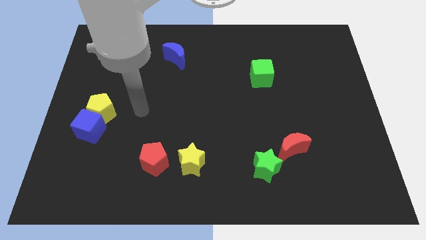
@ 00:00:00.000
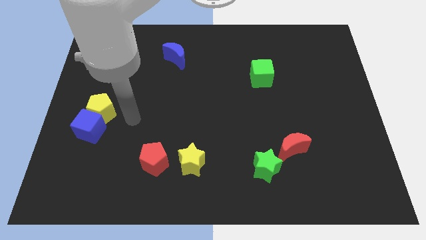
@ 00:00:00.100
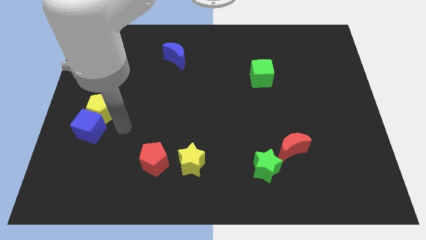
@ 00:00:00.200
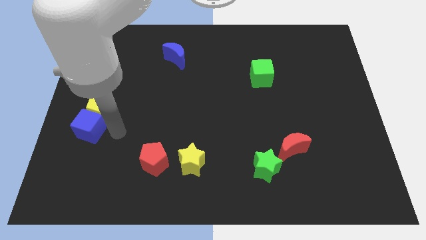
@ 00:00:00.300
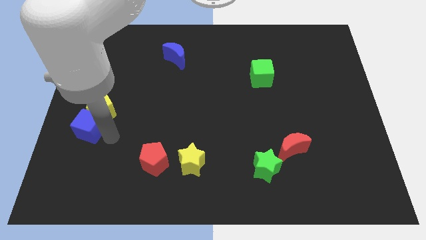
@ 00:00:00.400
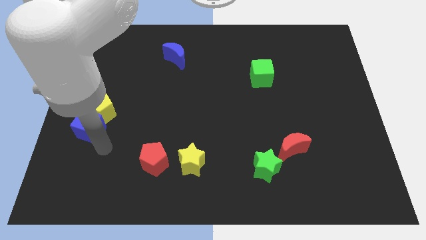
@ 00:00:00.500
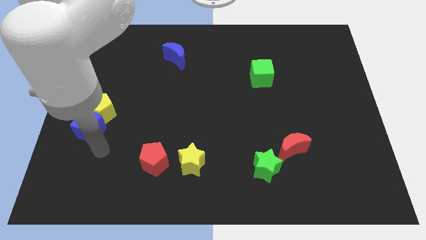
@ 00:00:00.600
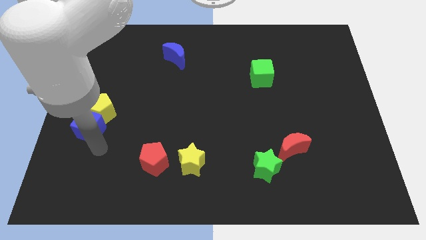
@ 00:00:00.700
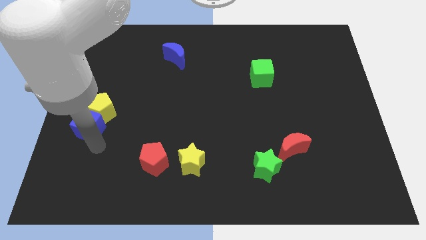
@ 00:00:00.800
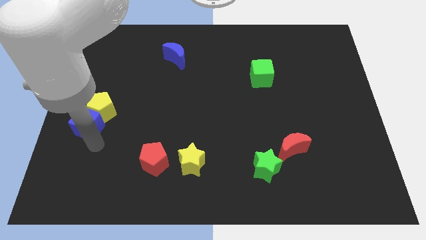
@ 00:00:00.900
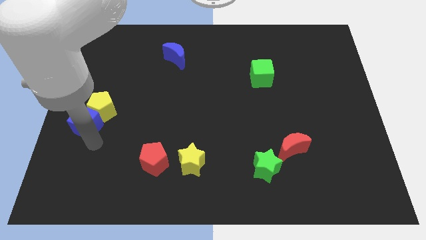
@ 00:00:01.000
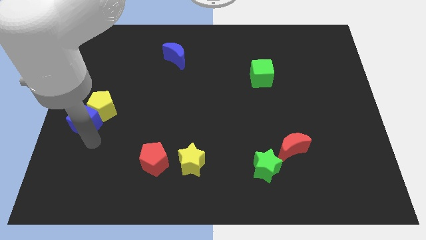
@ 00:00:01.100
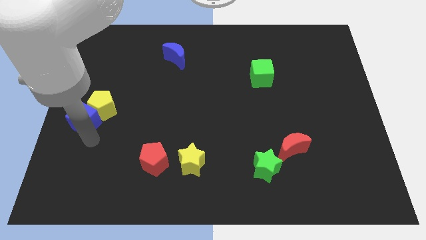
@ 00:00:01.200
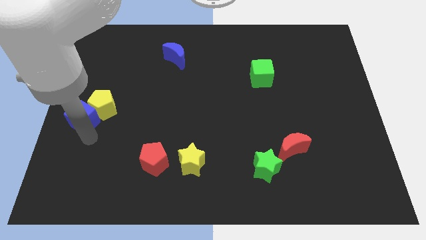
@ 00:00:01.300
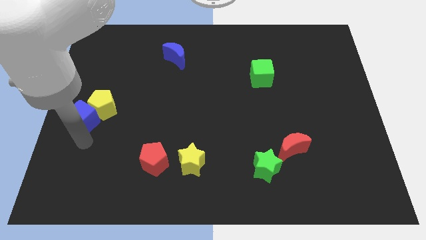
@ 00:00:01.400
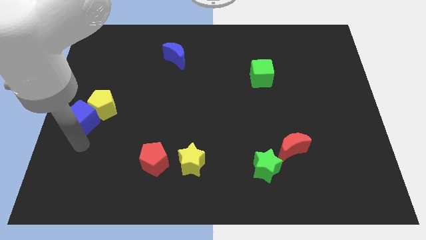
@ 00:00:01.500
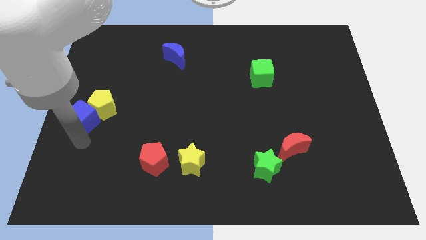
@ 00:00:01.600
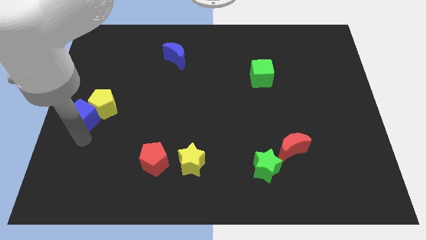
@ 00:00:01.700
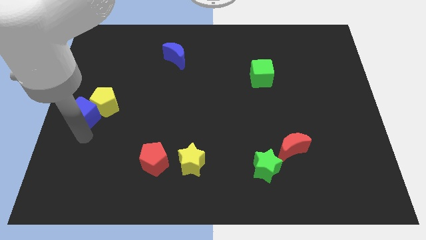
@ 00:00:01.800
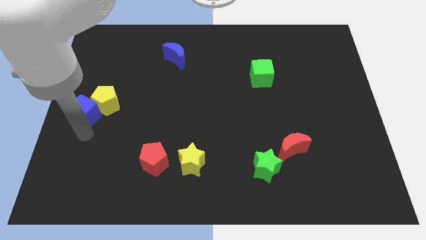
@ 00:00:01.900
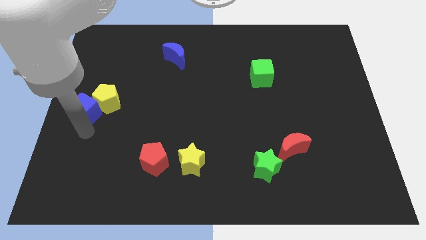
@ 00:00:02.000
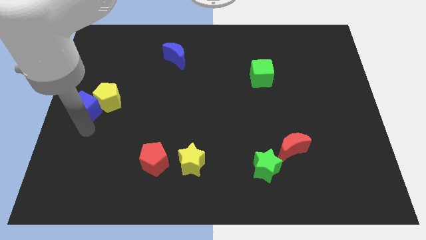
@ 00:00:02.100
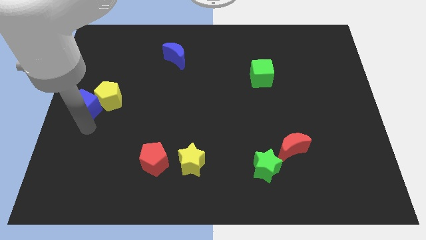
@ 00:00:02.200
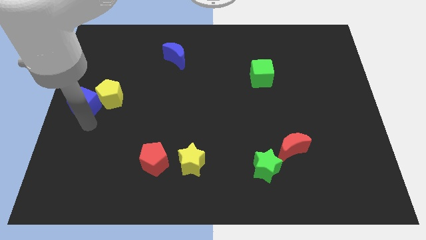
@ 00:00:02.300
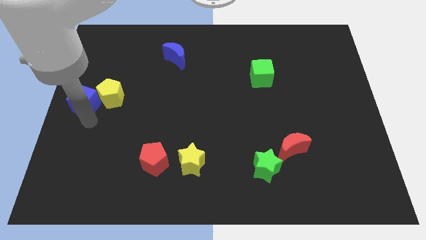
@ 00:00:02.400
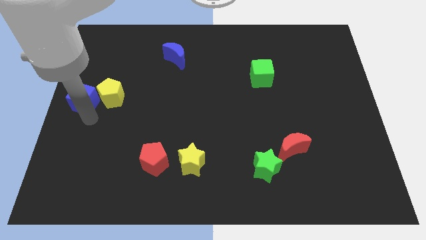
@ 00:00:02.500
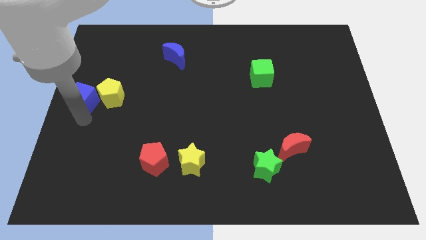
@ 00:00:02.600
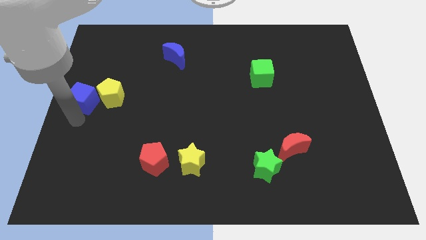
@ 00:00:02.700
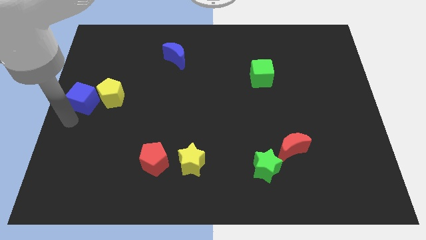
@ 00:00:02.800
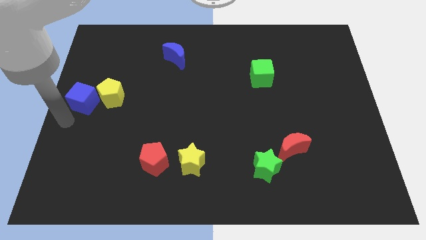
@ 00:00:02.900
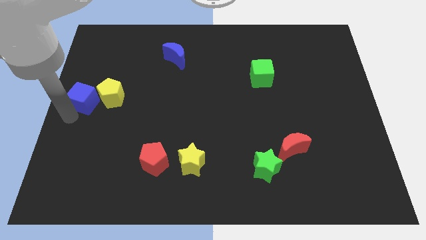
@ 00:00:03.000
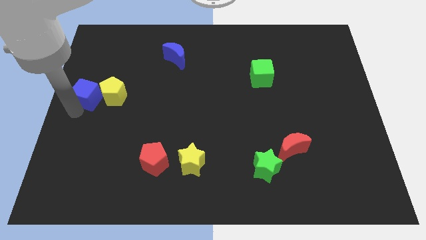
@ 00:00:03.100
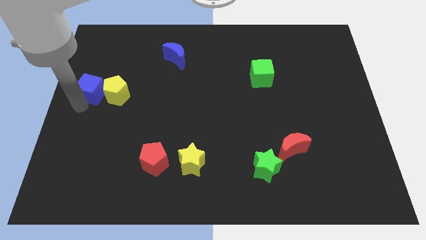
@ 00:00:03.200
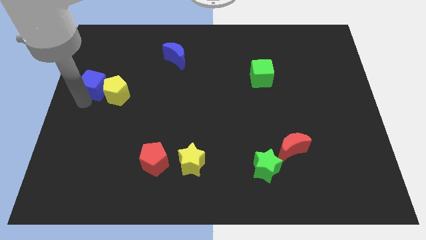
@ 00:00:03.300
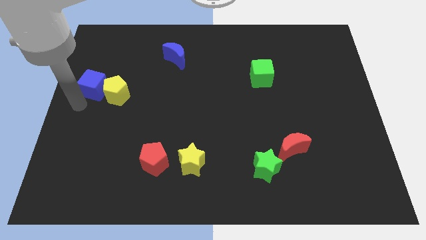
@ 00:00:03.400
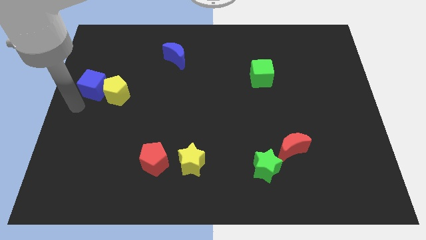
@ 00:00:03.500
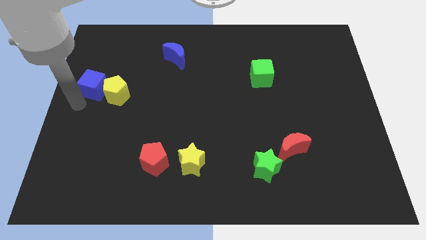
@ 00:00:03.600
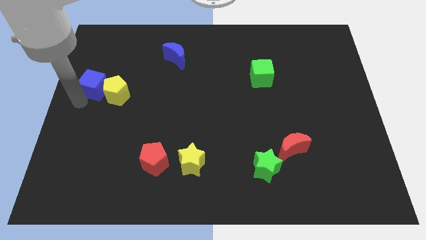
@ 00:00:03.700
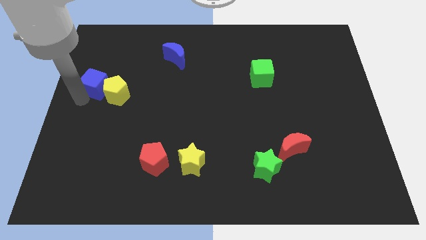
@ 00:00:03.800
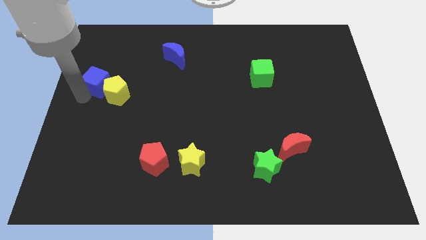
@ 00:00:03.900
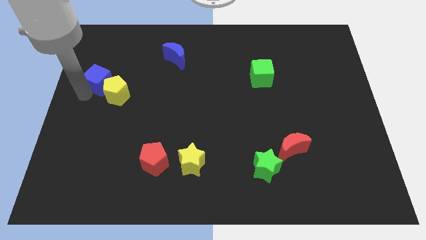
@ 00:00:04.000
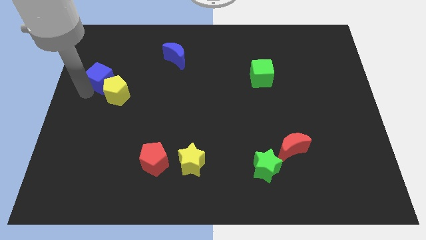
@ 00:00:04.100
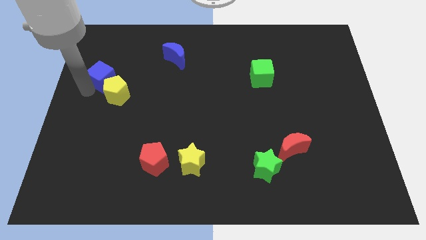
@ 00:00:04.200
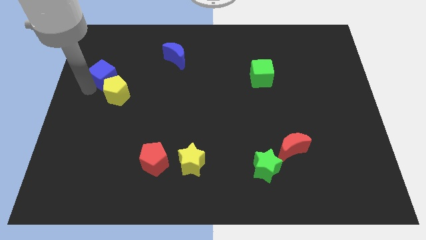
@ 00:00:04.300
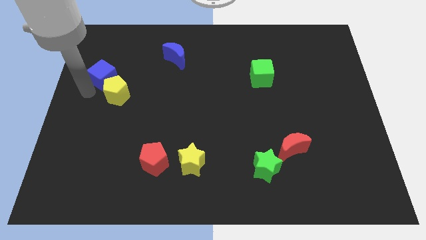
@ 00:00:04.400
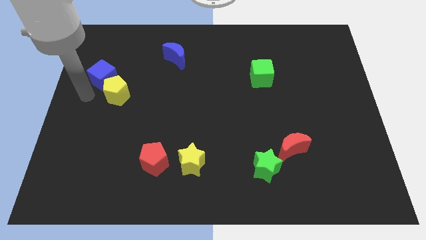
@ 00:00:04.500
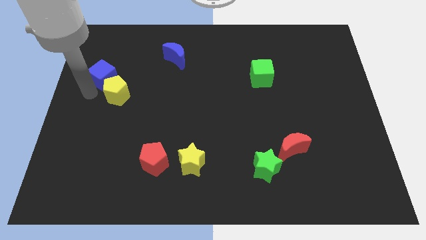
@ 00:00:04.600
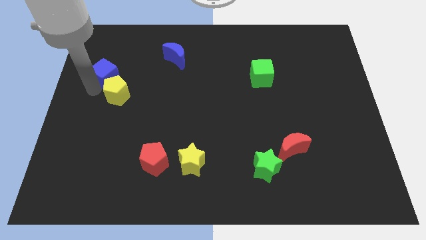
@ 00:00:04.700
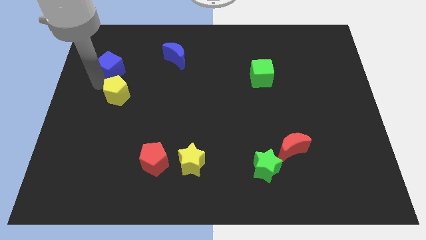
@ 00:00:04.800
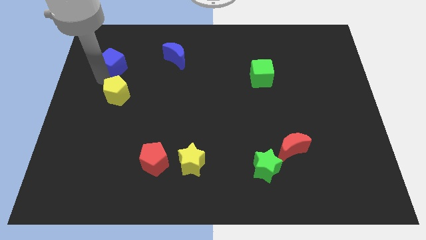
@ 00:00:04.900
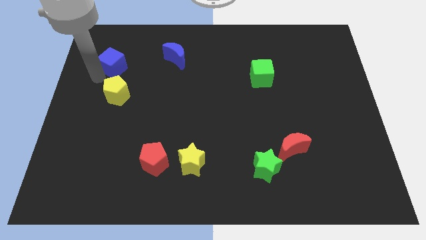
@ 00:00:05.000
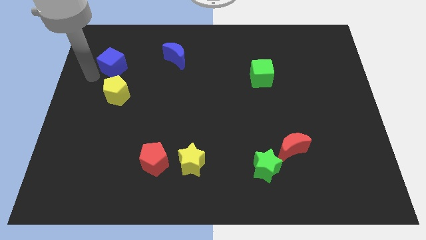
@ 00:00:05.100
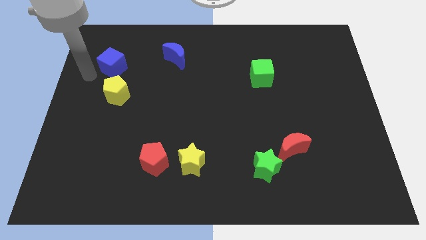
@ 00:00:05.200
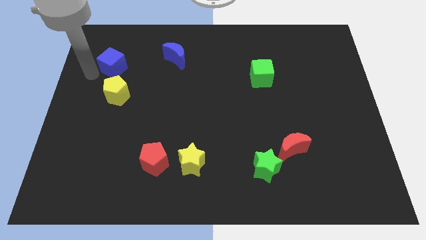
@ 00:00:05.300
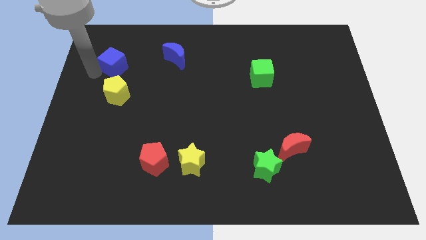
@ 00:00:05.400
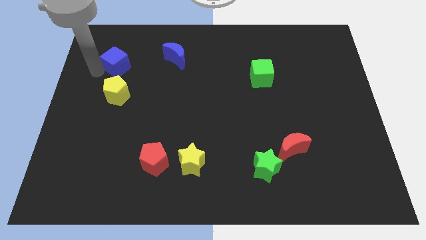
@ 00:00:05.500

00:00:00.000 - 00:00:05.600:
slide the blue cube left of the blue moon

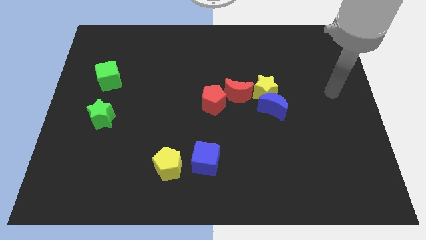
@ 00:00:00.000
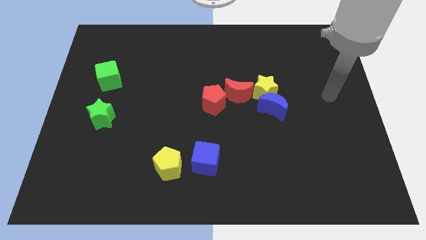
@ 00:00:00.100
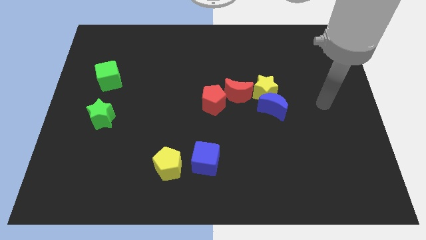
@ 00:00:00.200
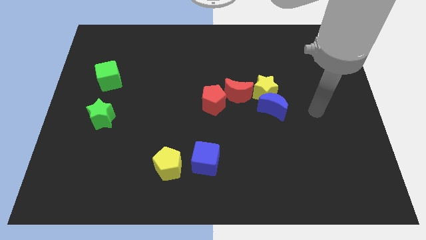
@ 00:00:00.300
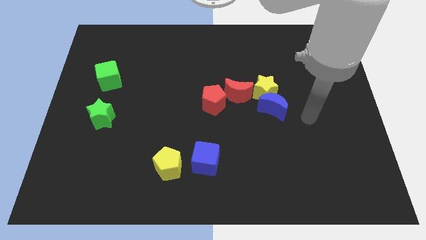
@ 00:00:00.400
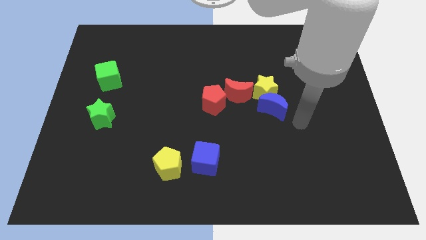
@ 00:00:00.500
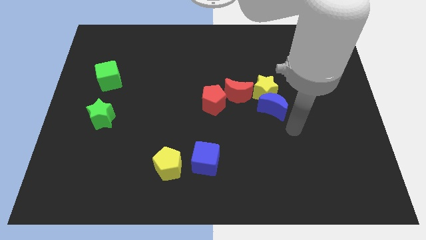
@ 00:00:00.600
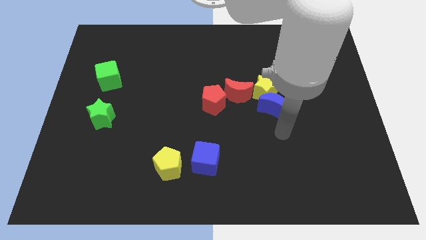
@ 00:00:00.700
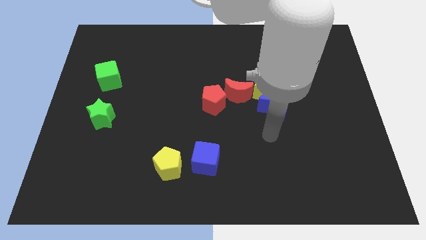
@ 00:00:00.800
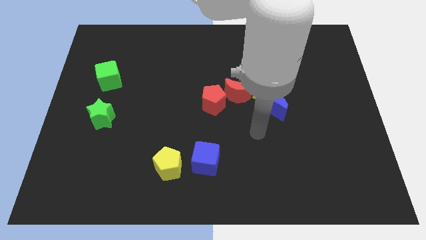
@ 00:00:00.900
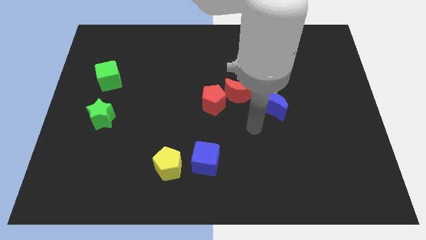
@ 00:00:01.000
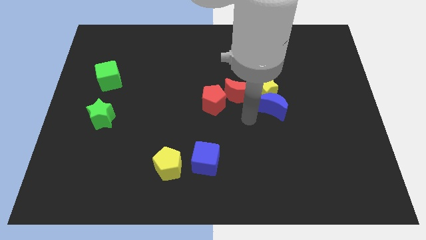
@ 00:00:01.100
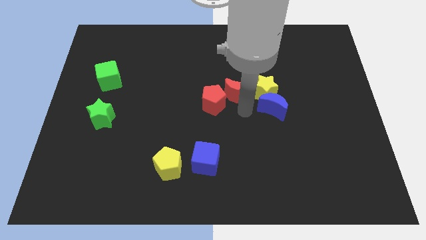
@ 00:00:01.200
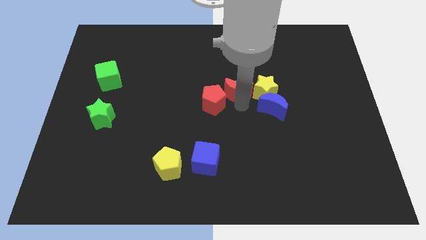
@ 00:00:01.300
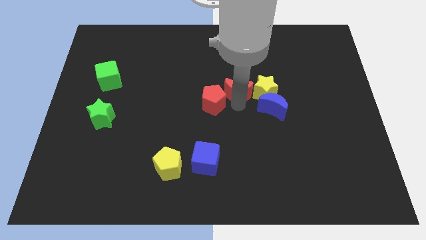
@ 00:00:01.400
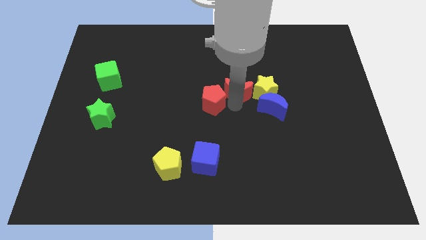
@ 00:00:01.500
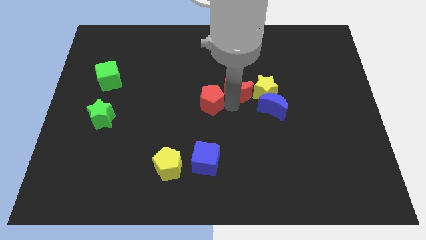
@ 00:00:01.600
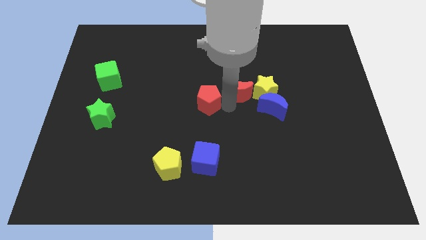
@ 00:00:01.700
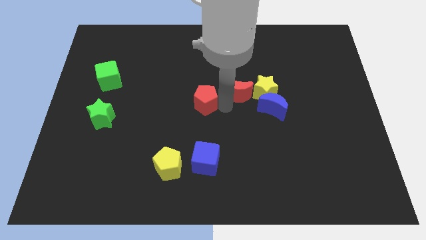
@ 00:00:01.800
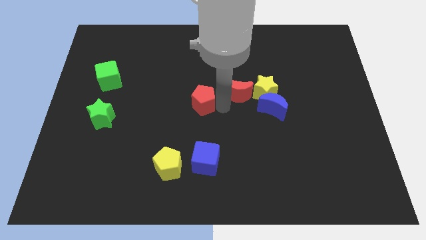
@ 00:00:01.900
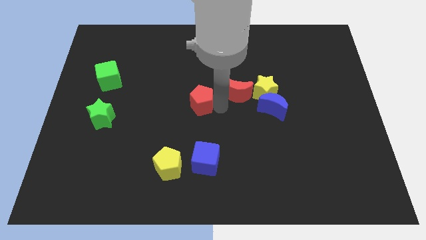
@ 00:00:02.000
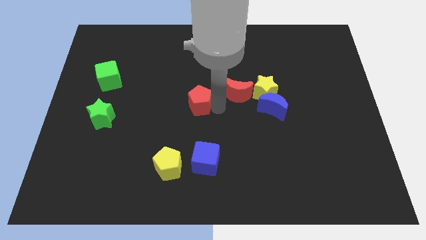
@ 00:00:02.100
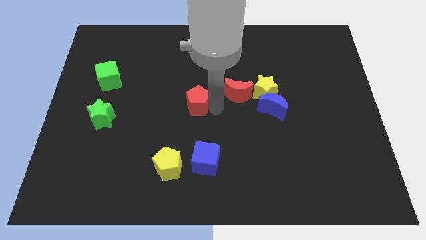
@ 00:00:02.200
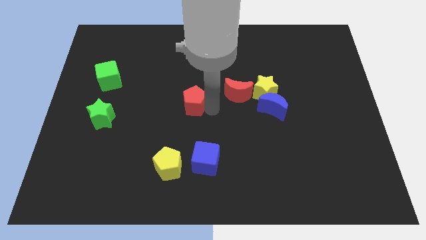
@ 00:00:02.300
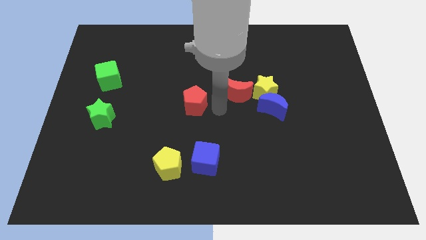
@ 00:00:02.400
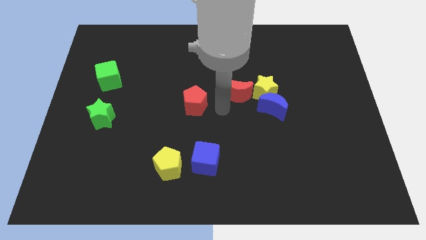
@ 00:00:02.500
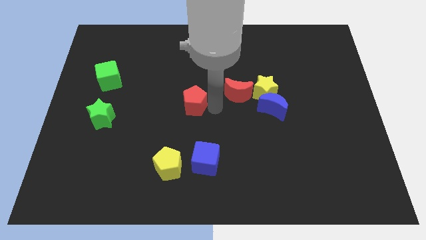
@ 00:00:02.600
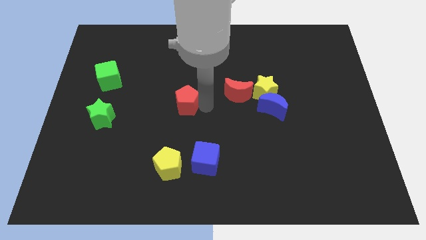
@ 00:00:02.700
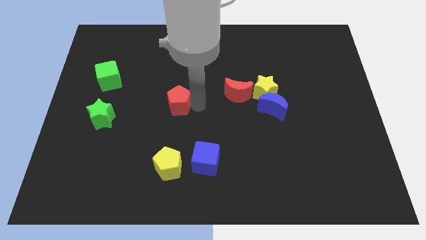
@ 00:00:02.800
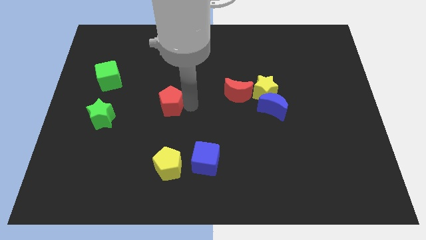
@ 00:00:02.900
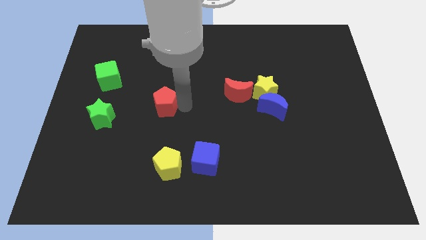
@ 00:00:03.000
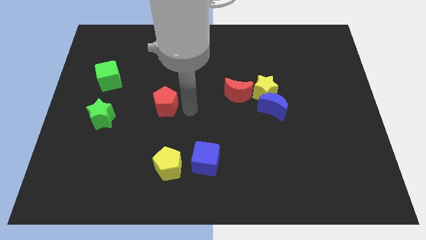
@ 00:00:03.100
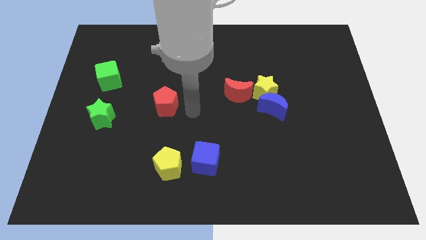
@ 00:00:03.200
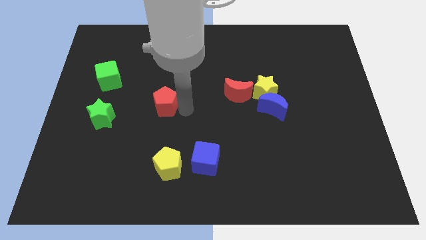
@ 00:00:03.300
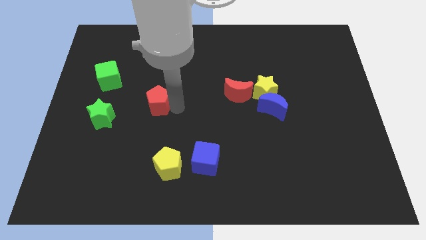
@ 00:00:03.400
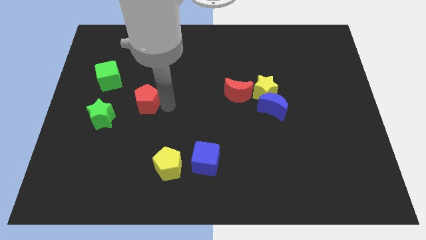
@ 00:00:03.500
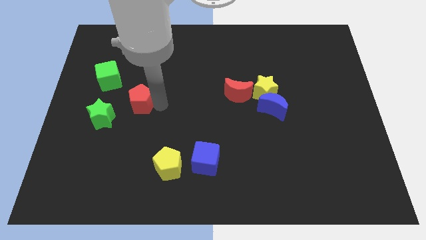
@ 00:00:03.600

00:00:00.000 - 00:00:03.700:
slide the red pentagon to the bottom right side of the green cube
